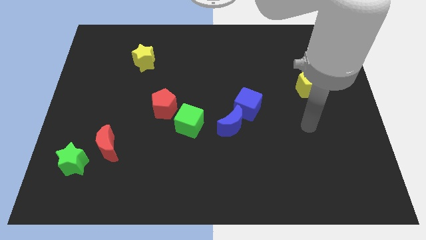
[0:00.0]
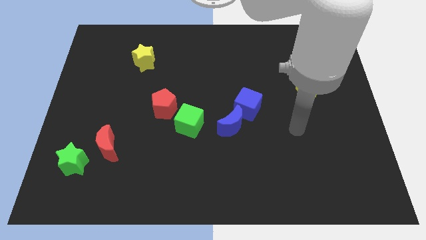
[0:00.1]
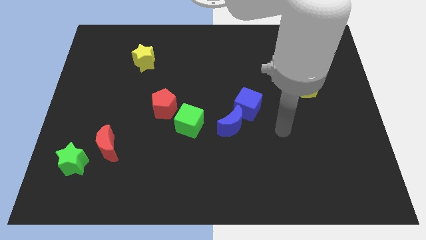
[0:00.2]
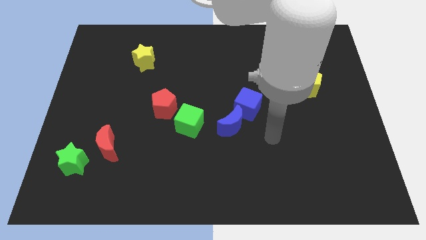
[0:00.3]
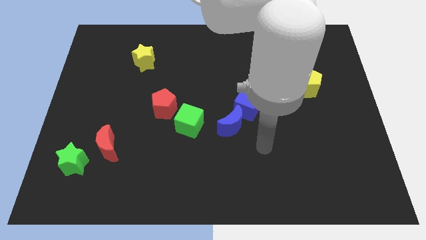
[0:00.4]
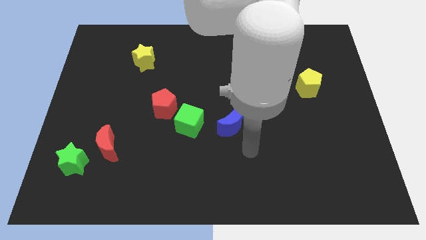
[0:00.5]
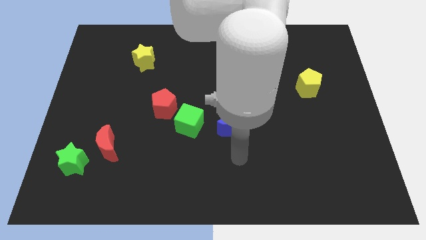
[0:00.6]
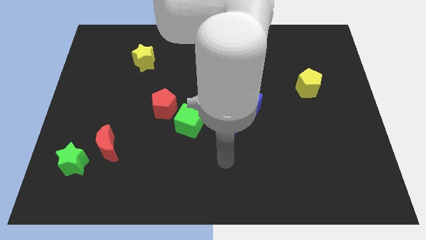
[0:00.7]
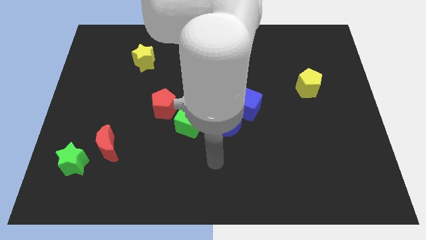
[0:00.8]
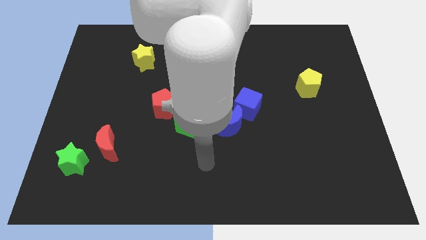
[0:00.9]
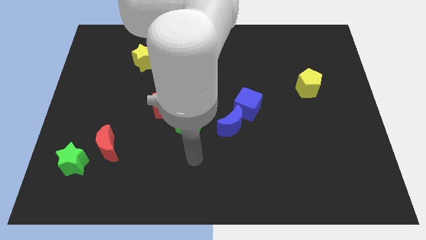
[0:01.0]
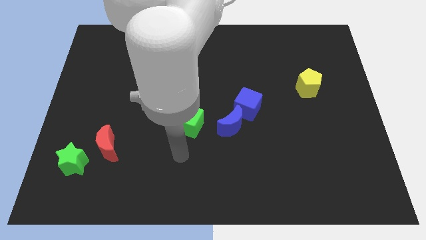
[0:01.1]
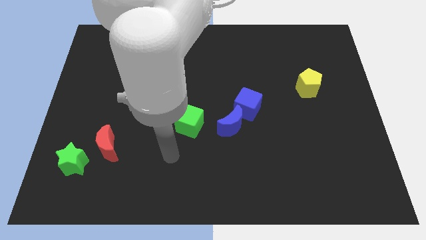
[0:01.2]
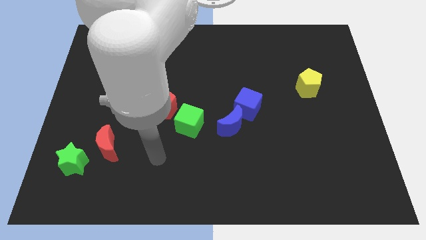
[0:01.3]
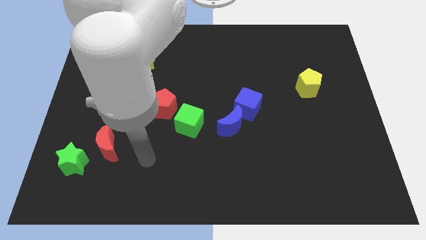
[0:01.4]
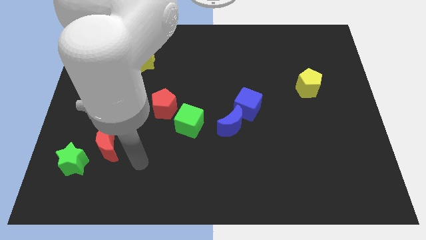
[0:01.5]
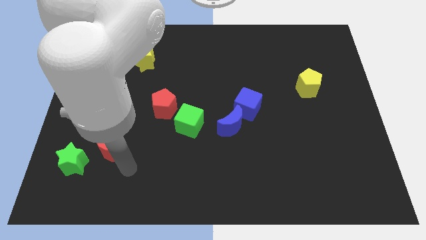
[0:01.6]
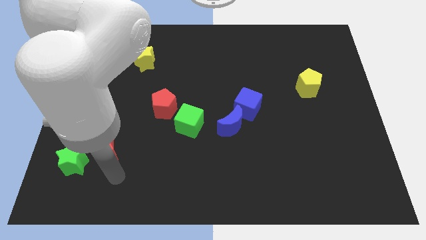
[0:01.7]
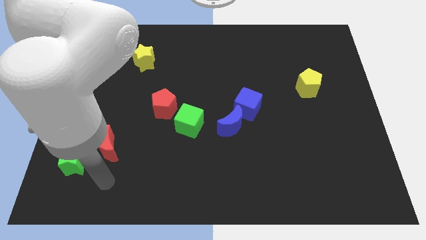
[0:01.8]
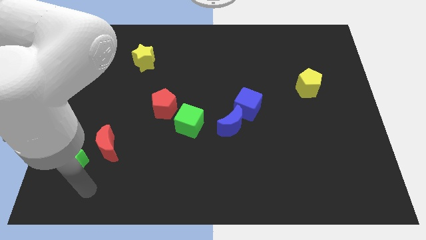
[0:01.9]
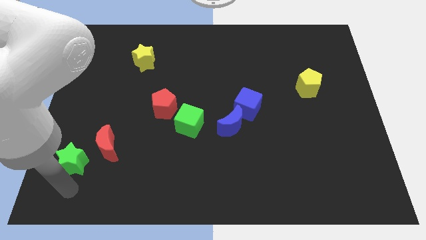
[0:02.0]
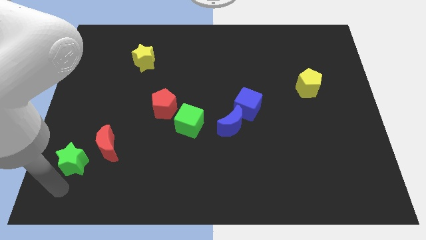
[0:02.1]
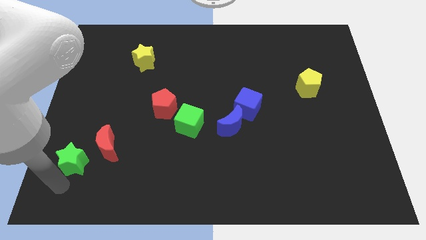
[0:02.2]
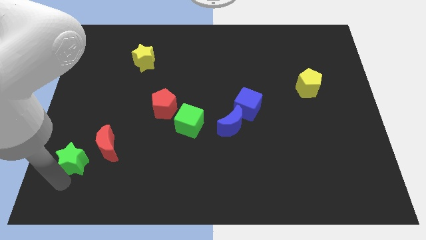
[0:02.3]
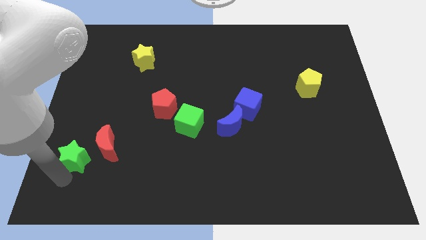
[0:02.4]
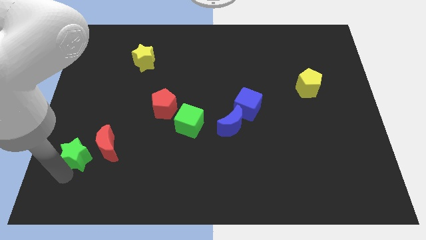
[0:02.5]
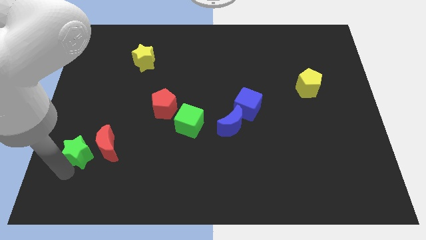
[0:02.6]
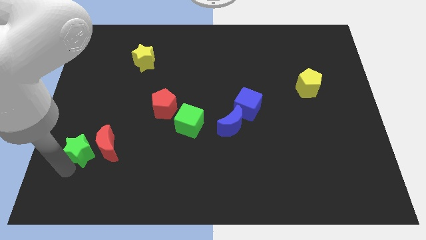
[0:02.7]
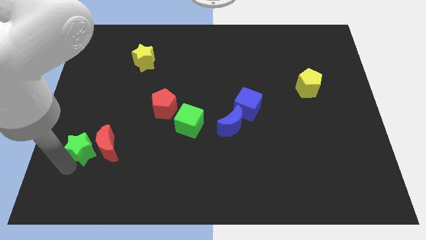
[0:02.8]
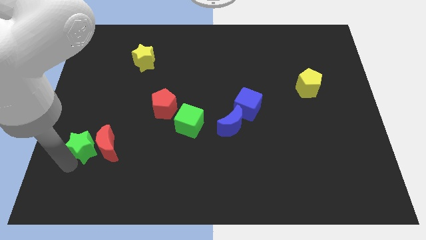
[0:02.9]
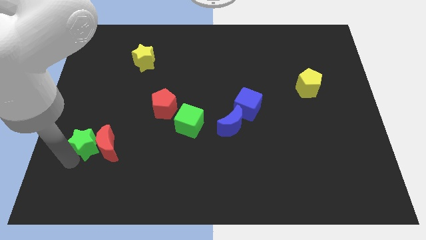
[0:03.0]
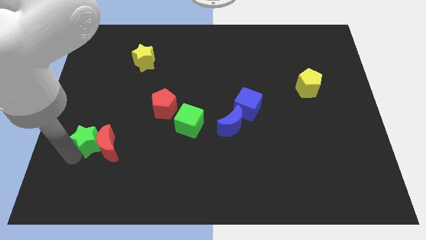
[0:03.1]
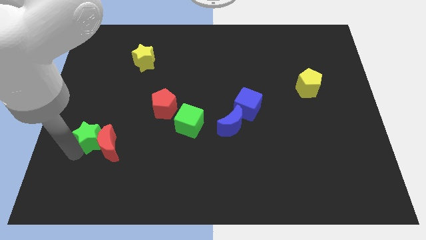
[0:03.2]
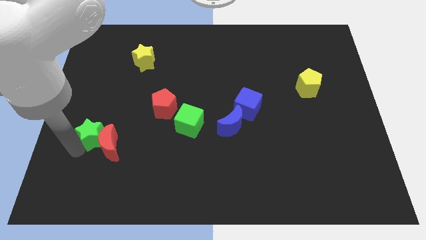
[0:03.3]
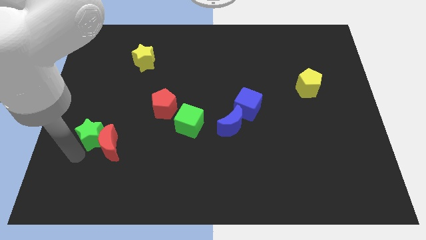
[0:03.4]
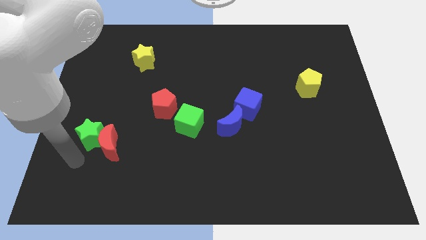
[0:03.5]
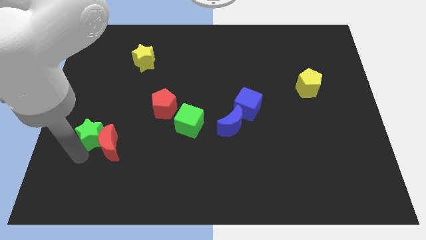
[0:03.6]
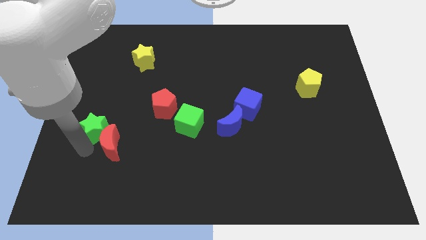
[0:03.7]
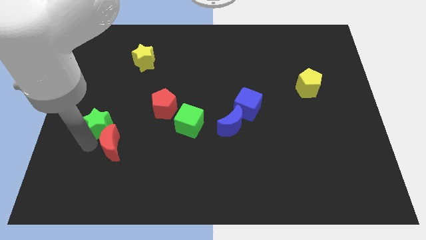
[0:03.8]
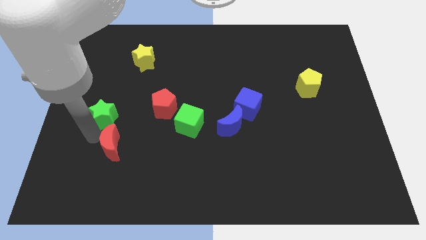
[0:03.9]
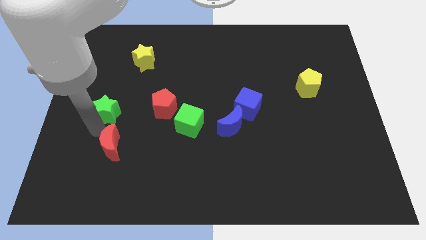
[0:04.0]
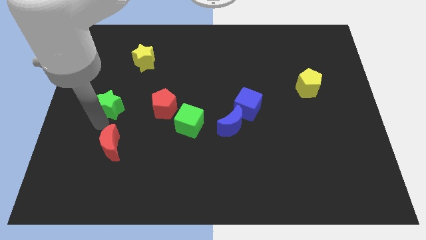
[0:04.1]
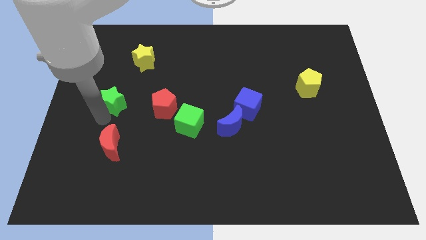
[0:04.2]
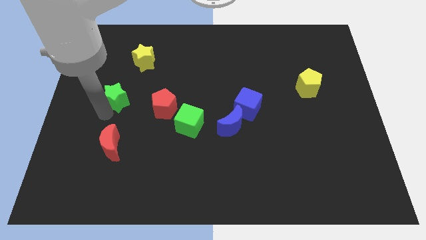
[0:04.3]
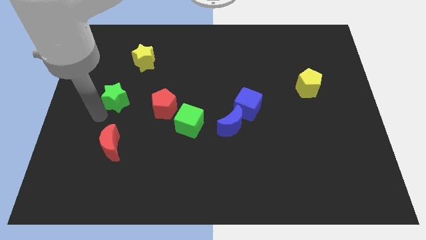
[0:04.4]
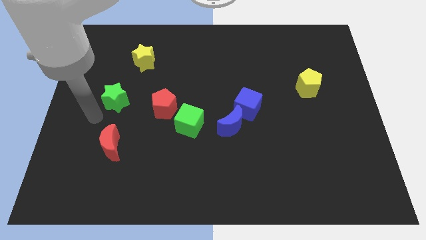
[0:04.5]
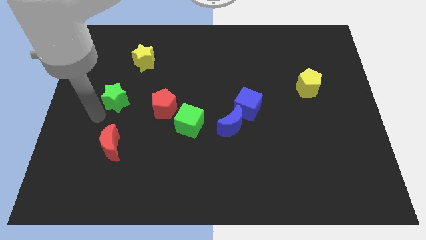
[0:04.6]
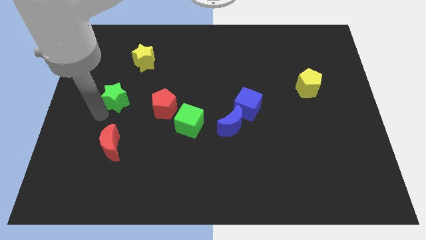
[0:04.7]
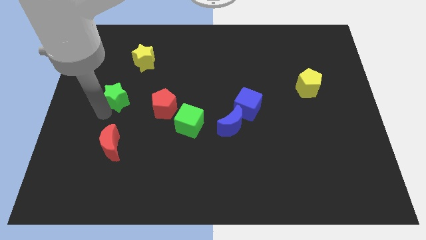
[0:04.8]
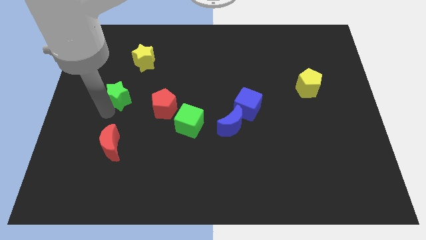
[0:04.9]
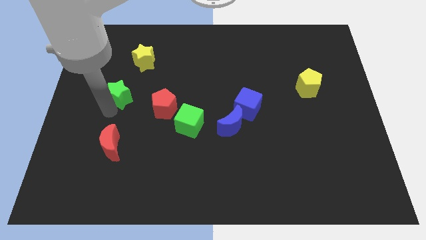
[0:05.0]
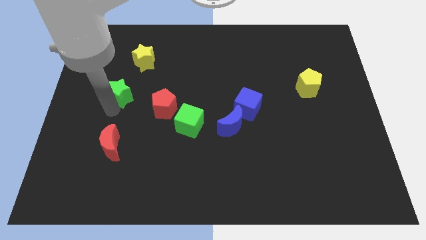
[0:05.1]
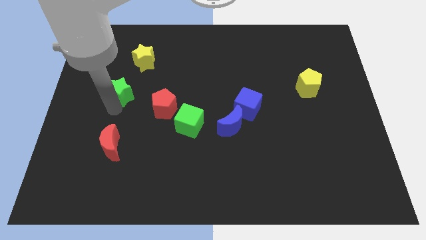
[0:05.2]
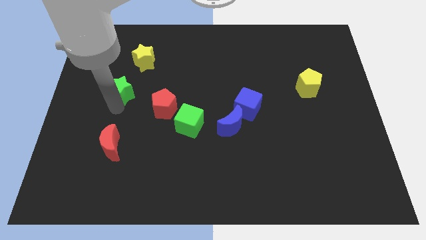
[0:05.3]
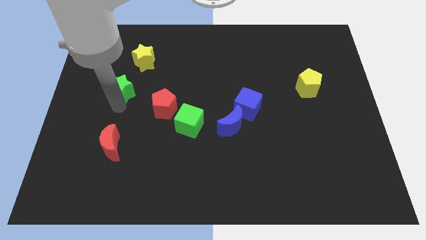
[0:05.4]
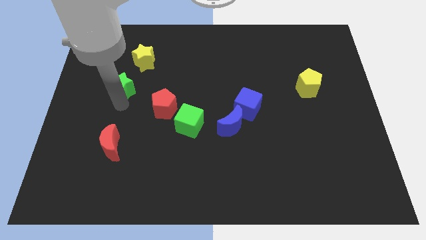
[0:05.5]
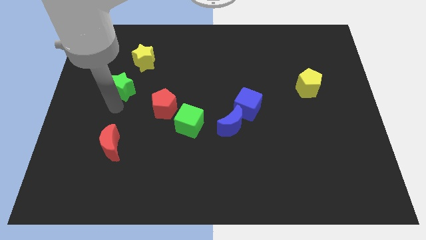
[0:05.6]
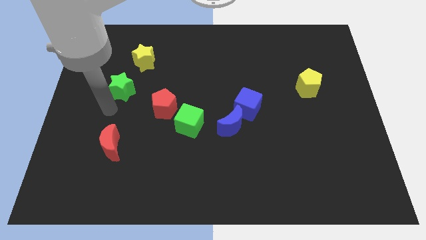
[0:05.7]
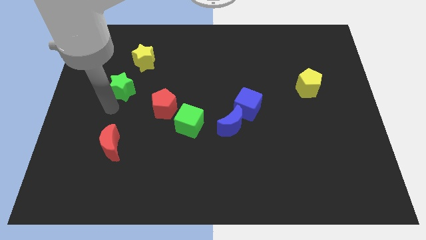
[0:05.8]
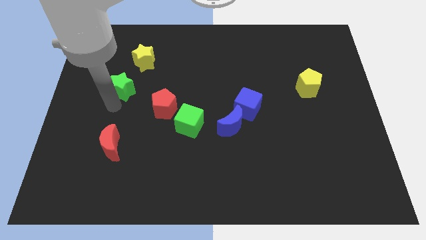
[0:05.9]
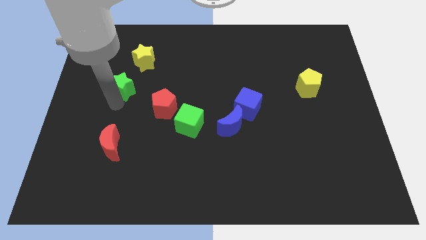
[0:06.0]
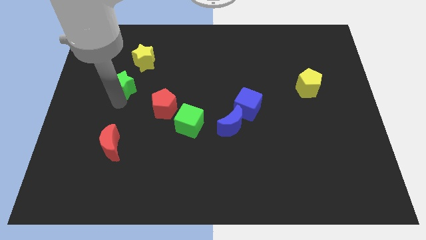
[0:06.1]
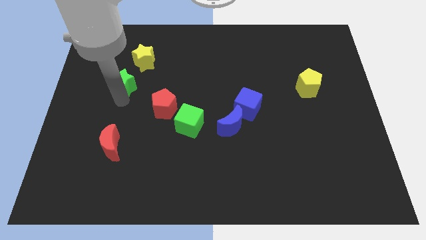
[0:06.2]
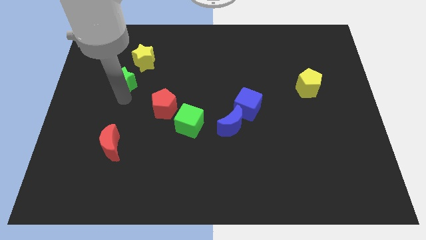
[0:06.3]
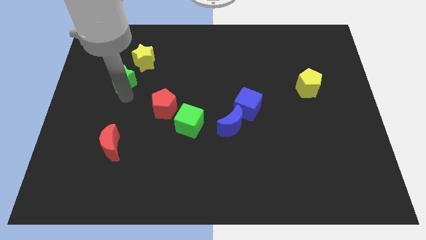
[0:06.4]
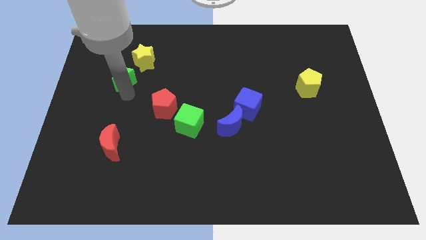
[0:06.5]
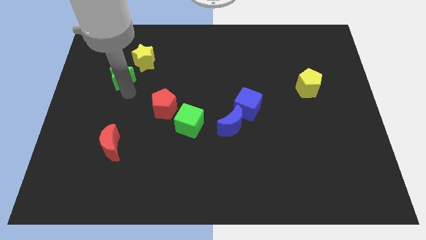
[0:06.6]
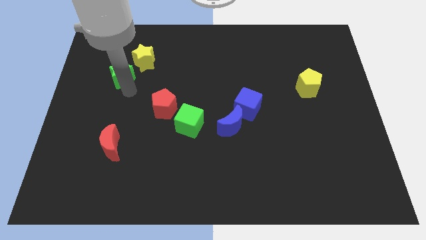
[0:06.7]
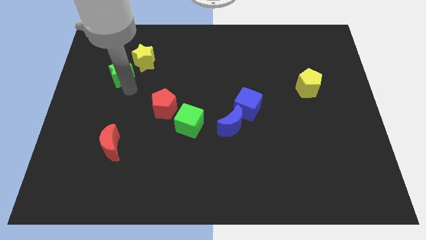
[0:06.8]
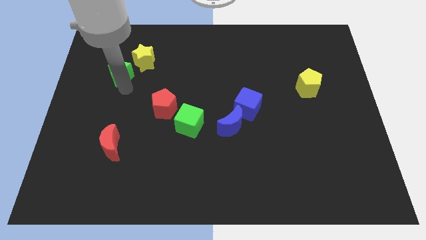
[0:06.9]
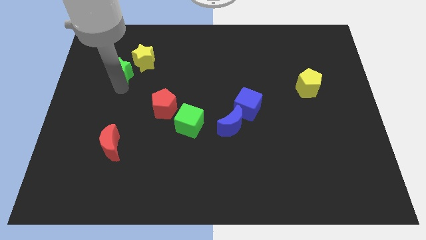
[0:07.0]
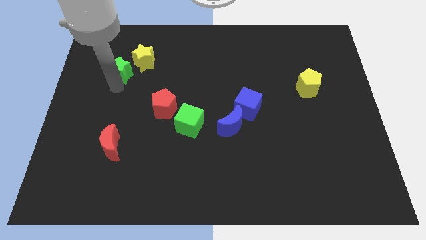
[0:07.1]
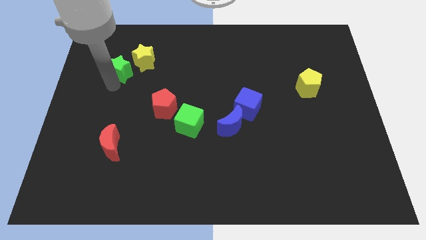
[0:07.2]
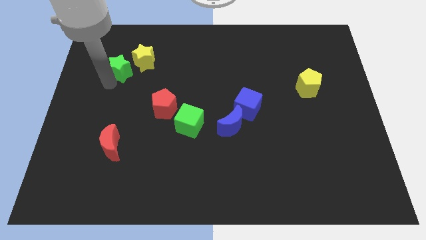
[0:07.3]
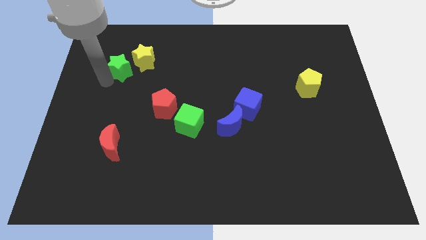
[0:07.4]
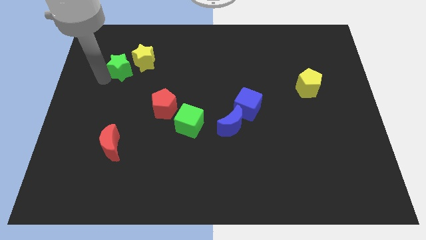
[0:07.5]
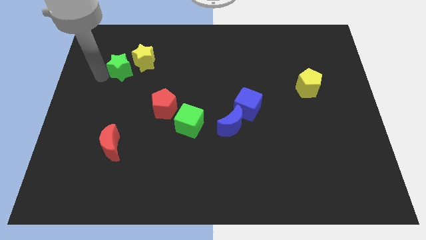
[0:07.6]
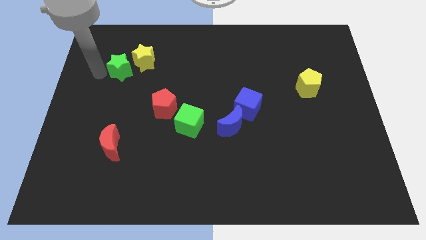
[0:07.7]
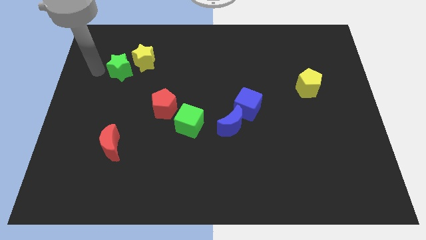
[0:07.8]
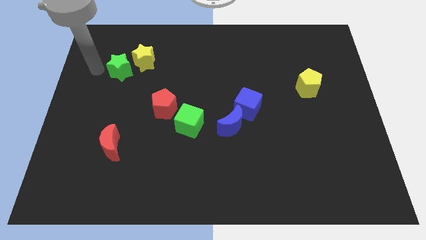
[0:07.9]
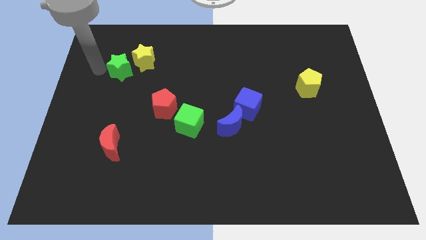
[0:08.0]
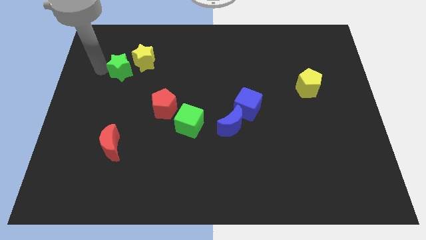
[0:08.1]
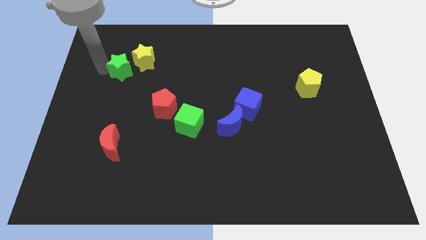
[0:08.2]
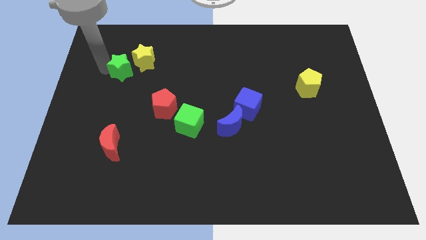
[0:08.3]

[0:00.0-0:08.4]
slide the green star close to the yellow star
